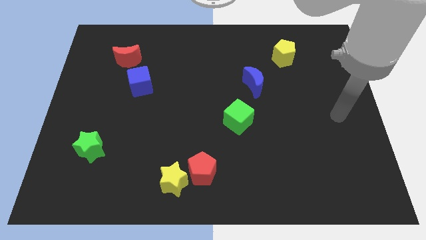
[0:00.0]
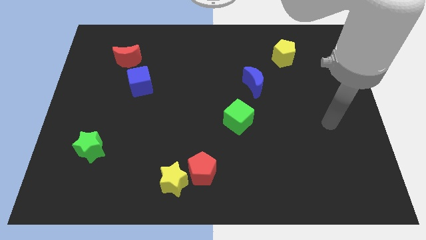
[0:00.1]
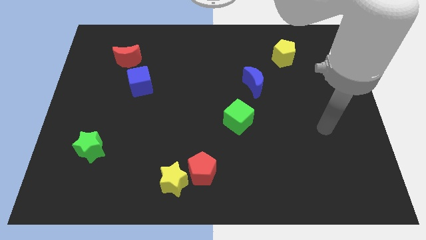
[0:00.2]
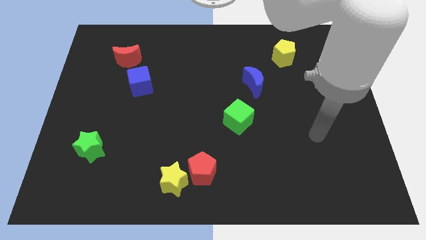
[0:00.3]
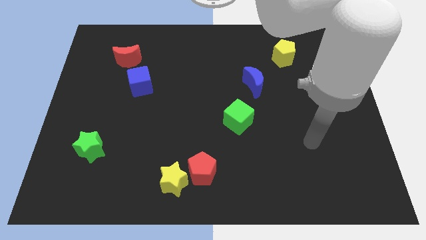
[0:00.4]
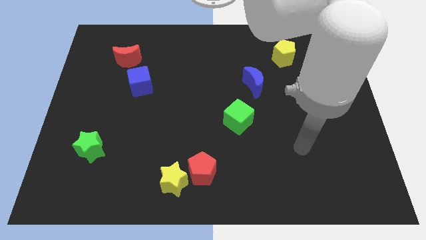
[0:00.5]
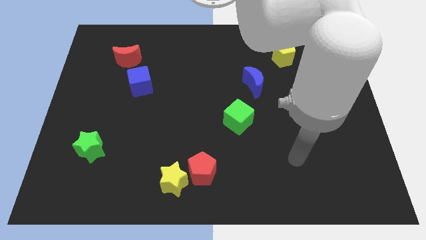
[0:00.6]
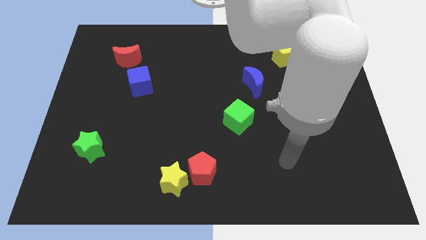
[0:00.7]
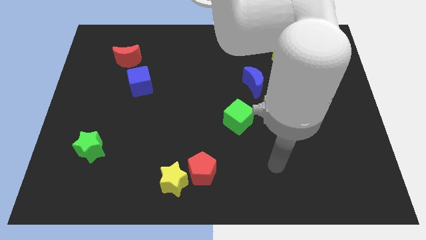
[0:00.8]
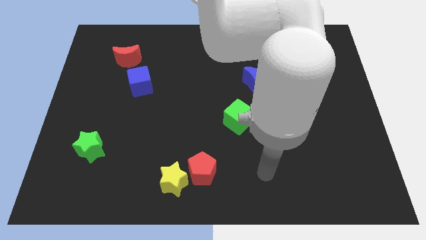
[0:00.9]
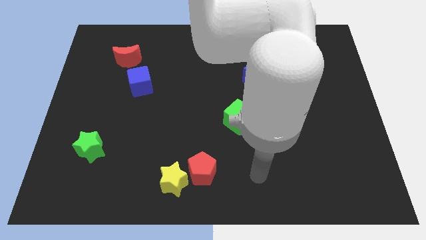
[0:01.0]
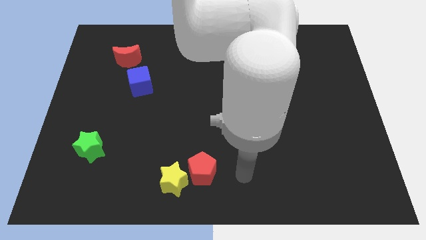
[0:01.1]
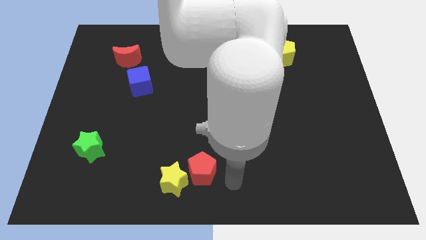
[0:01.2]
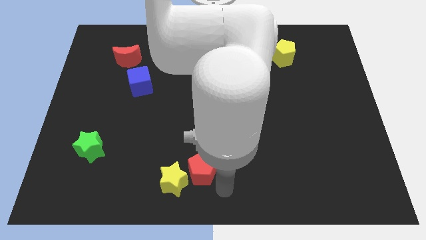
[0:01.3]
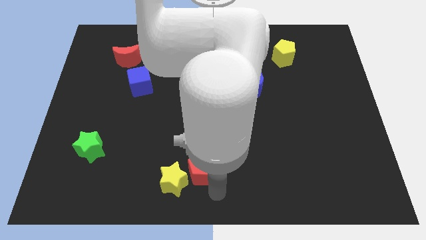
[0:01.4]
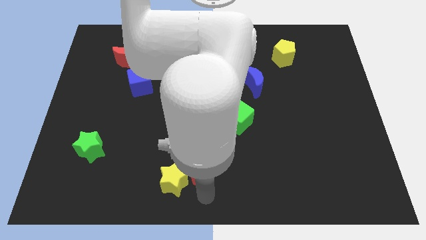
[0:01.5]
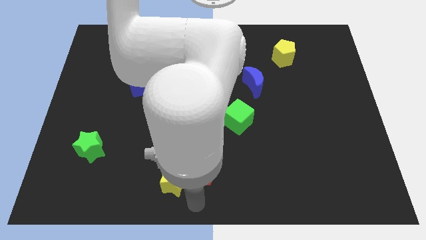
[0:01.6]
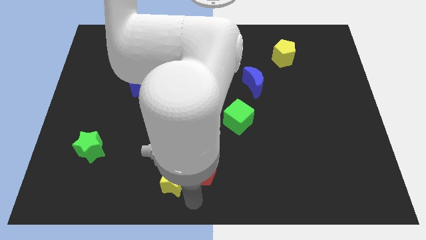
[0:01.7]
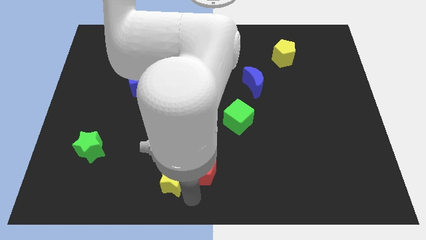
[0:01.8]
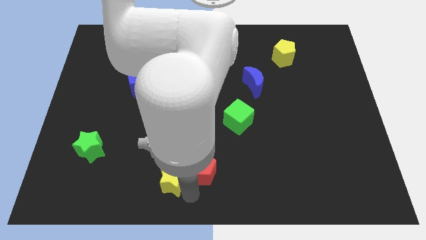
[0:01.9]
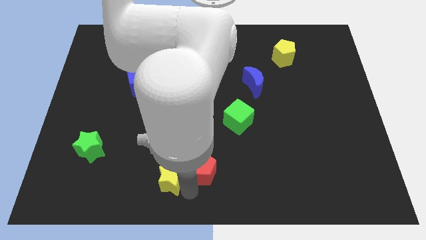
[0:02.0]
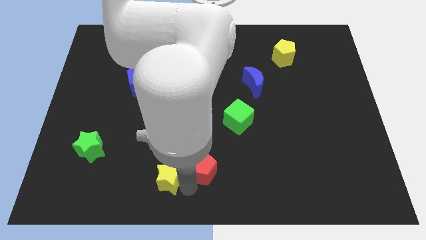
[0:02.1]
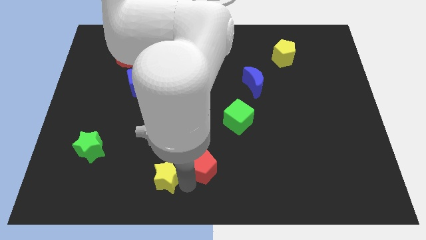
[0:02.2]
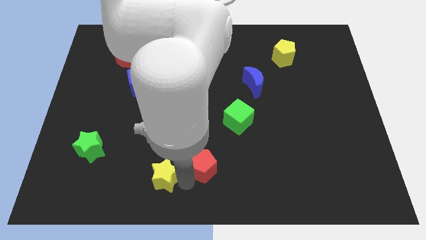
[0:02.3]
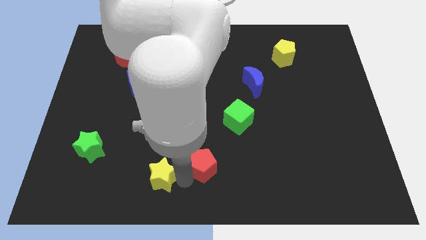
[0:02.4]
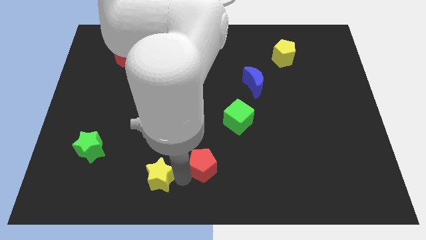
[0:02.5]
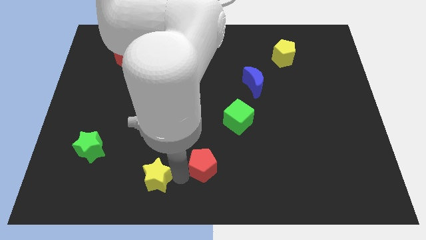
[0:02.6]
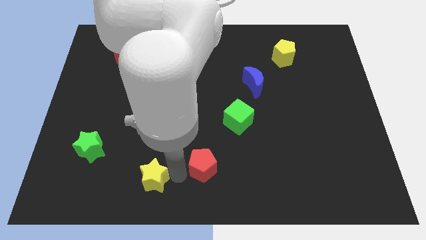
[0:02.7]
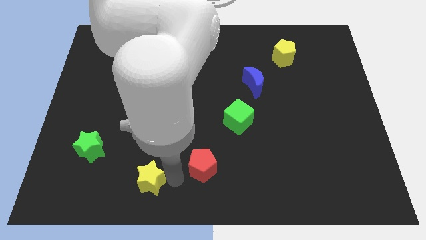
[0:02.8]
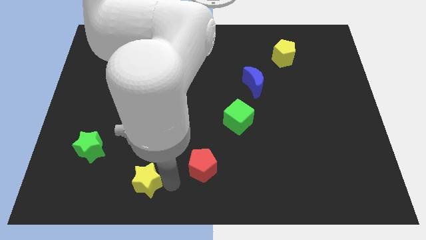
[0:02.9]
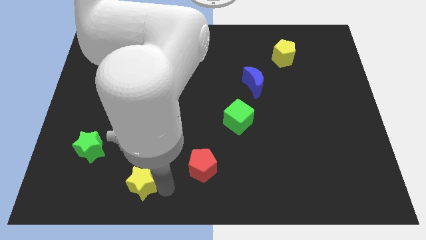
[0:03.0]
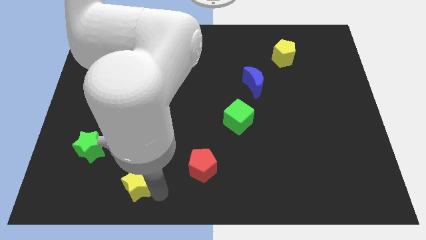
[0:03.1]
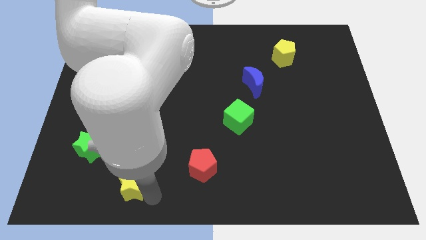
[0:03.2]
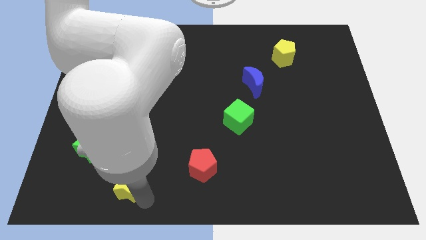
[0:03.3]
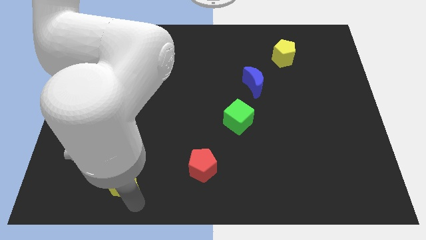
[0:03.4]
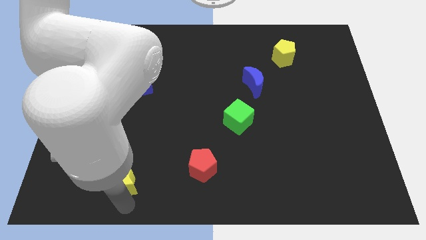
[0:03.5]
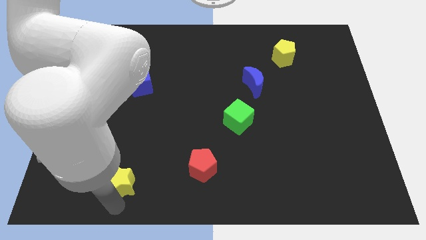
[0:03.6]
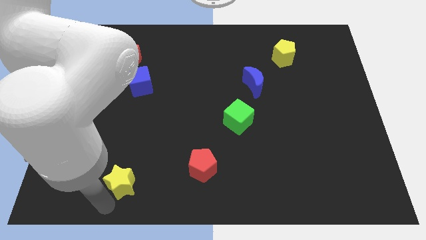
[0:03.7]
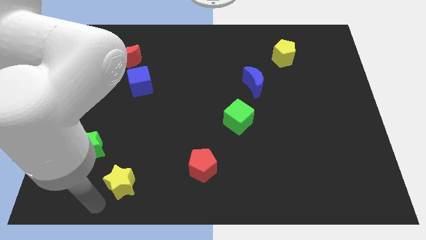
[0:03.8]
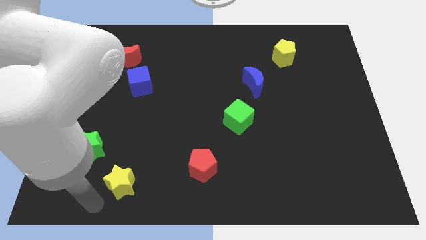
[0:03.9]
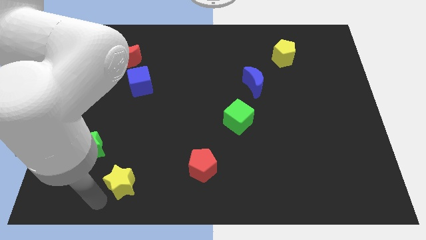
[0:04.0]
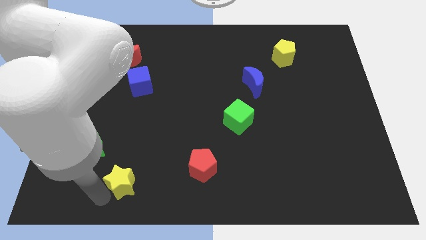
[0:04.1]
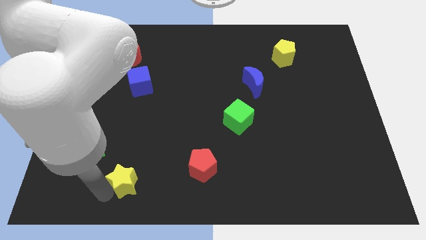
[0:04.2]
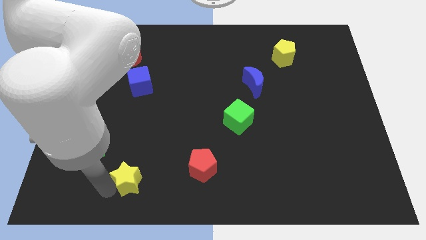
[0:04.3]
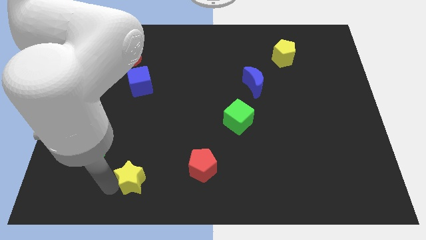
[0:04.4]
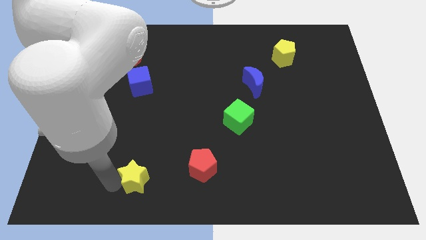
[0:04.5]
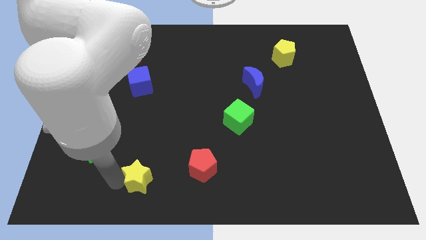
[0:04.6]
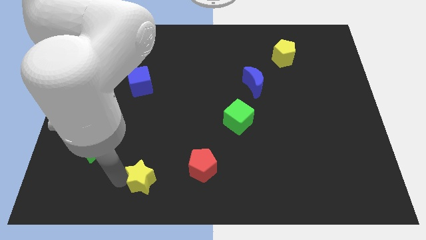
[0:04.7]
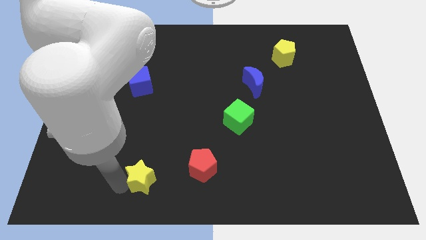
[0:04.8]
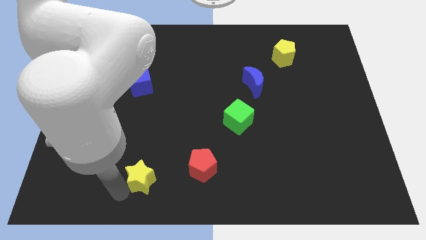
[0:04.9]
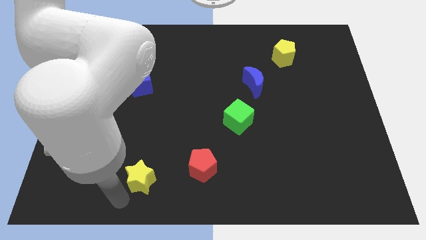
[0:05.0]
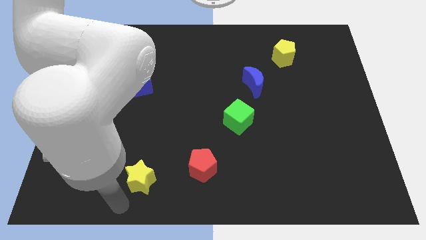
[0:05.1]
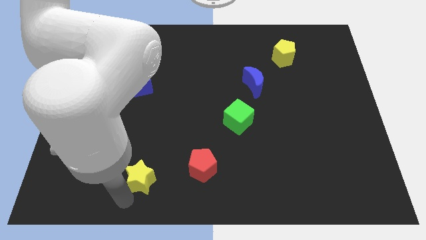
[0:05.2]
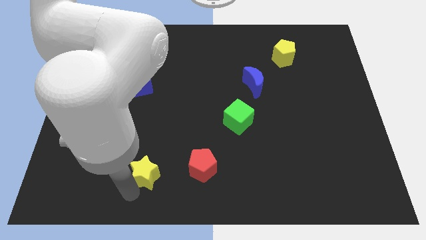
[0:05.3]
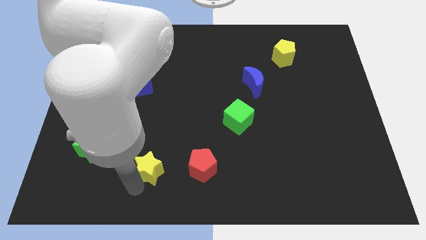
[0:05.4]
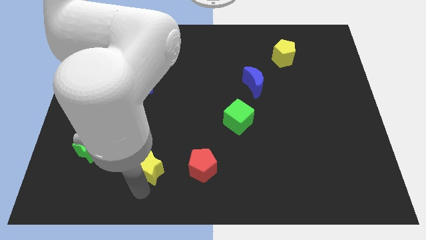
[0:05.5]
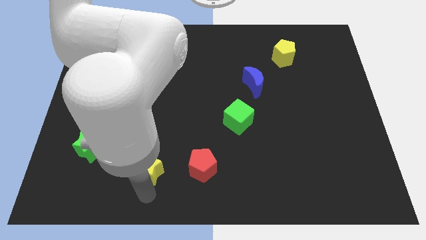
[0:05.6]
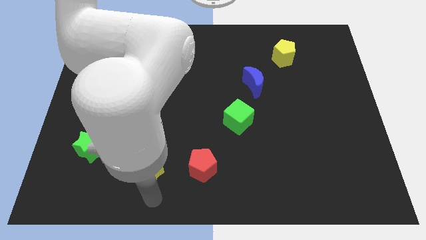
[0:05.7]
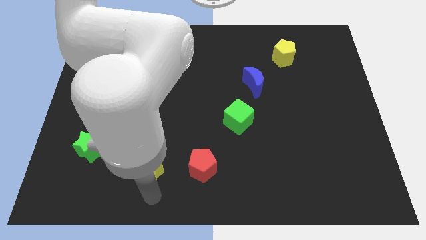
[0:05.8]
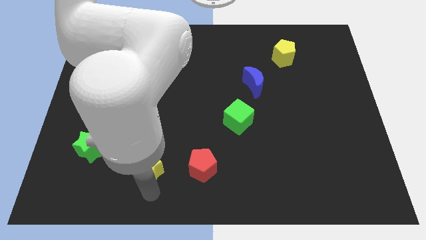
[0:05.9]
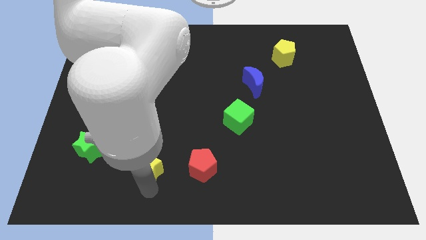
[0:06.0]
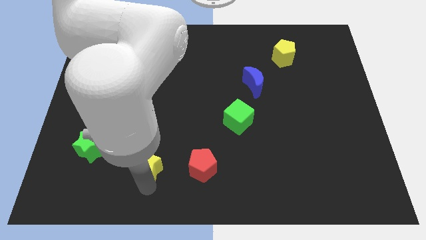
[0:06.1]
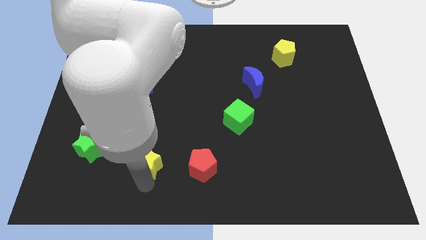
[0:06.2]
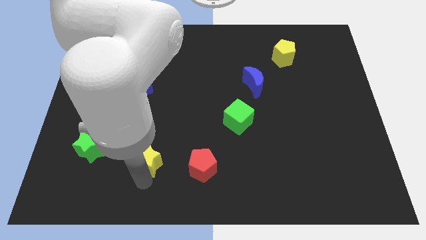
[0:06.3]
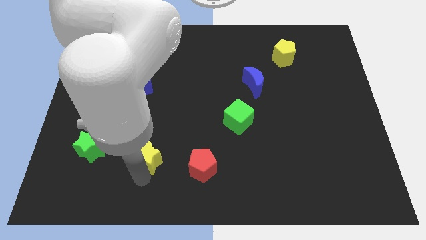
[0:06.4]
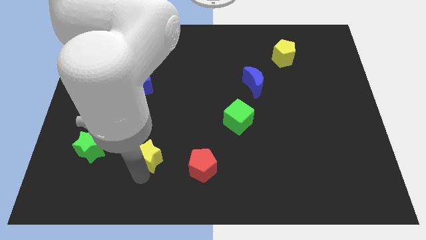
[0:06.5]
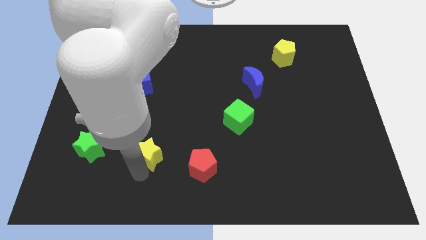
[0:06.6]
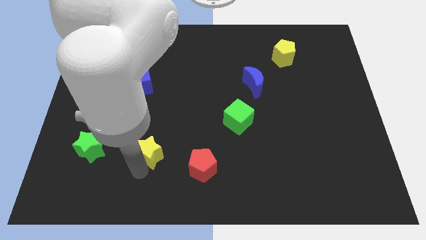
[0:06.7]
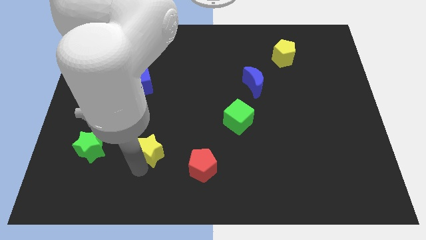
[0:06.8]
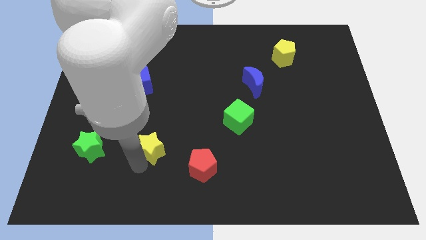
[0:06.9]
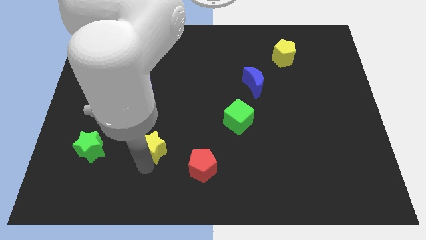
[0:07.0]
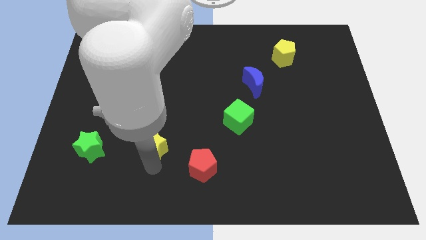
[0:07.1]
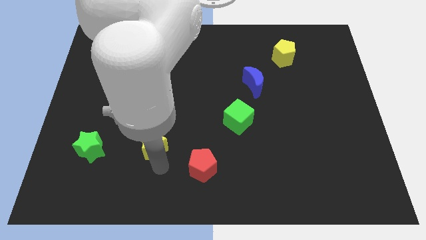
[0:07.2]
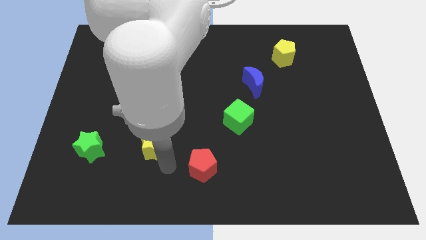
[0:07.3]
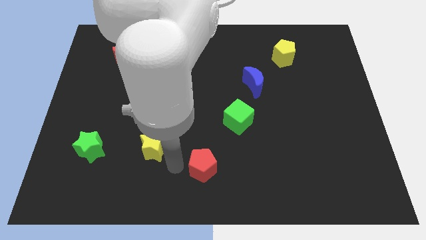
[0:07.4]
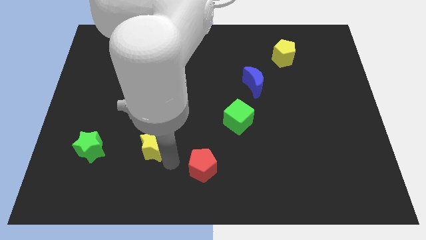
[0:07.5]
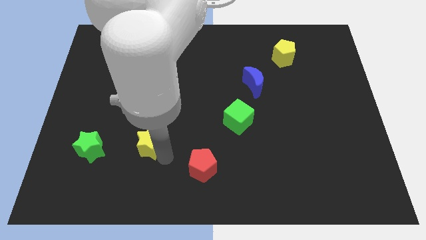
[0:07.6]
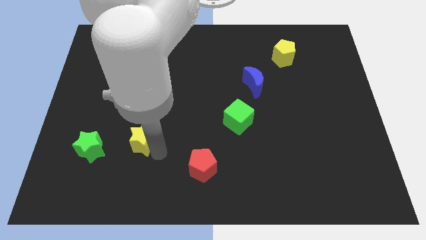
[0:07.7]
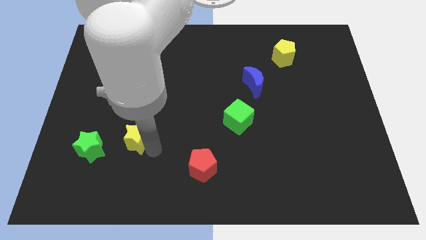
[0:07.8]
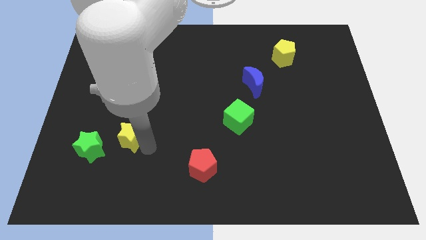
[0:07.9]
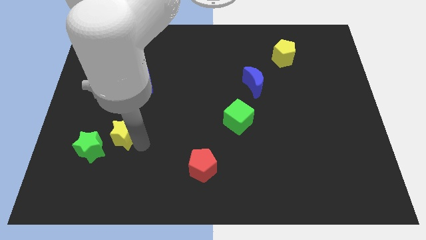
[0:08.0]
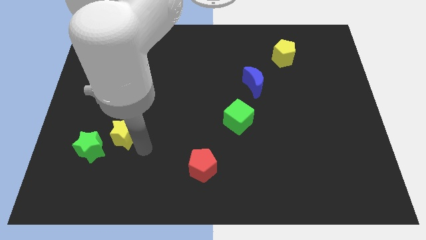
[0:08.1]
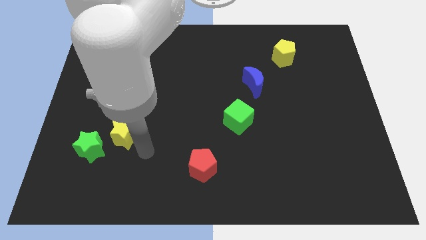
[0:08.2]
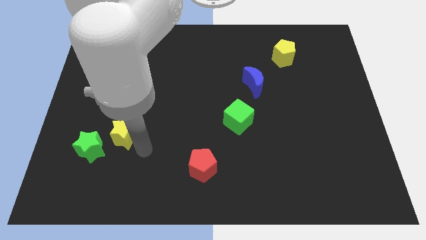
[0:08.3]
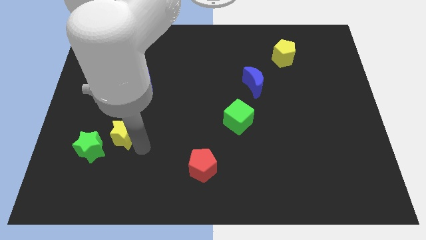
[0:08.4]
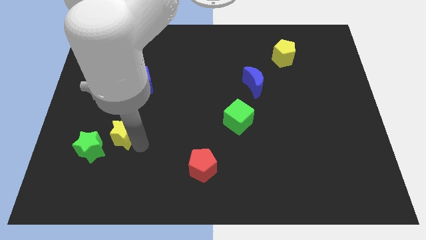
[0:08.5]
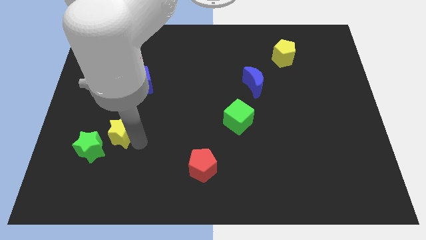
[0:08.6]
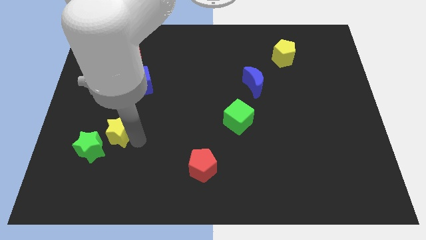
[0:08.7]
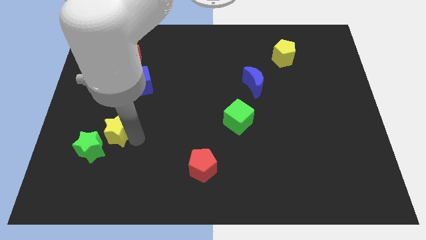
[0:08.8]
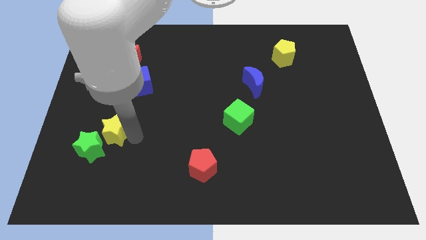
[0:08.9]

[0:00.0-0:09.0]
move the yellow star to the top of the green star
